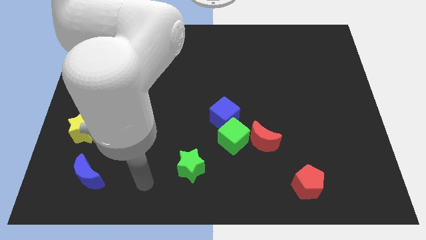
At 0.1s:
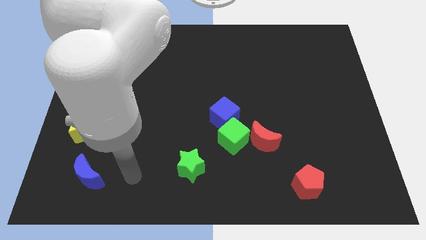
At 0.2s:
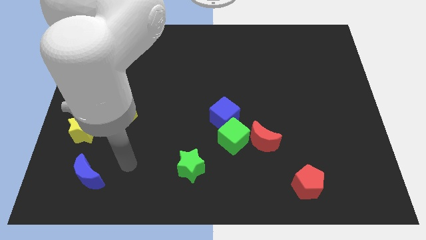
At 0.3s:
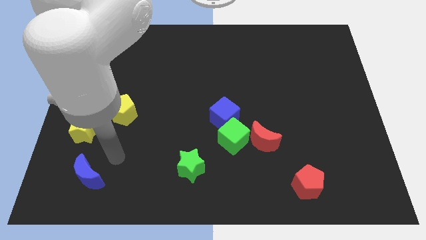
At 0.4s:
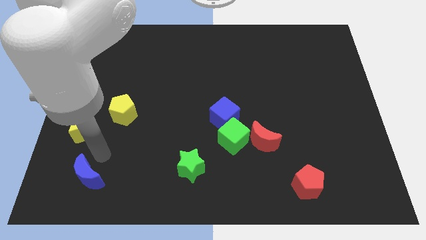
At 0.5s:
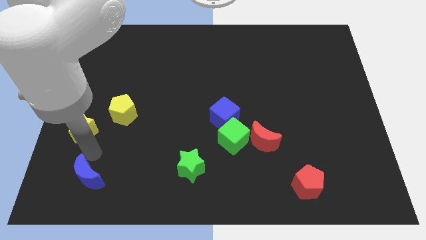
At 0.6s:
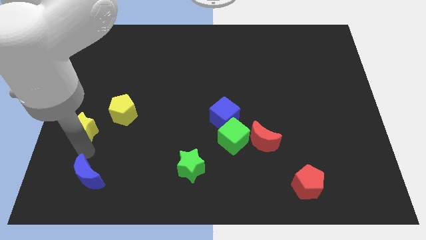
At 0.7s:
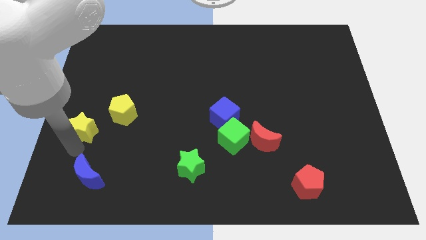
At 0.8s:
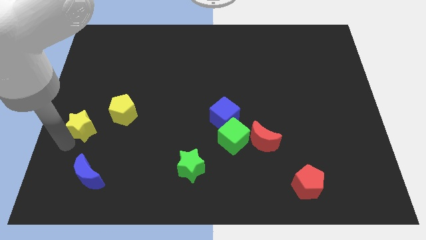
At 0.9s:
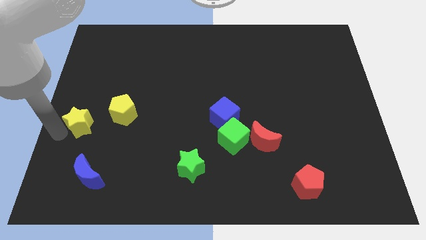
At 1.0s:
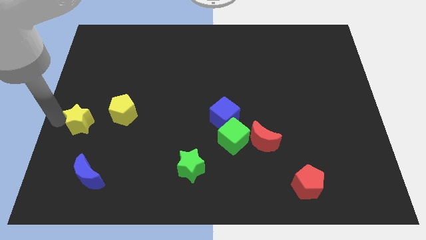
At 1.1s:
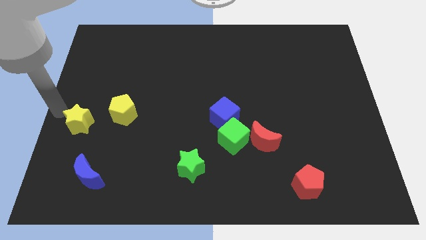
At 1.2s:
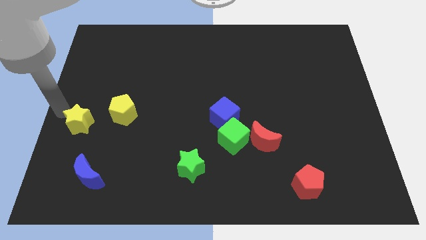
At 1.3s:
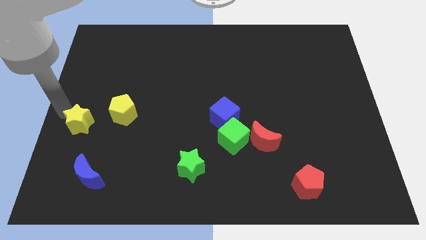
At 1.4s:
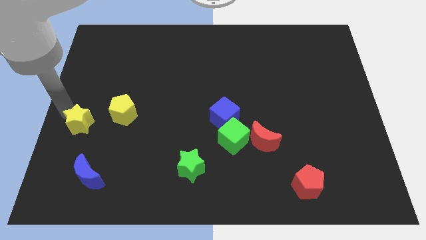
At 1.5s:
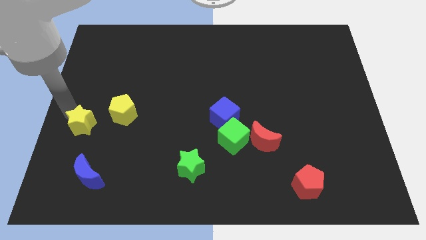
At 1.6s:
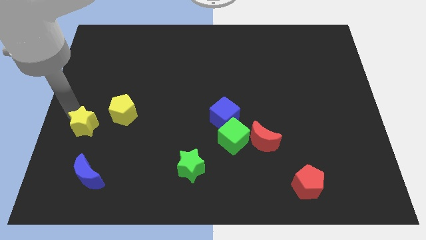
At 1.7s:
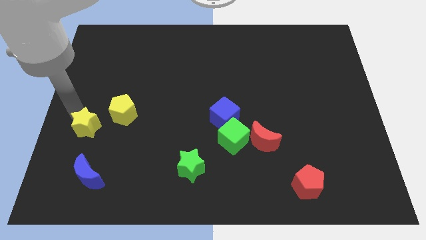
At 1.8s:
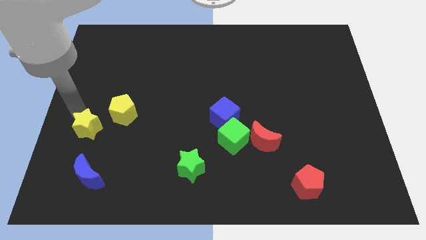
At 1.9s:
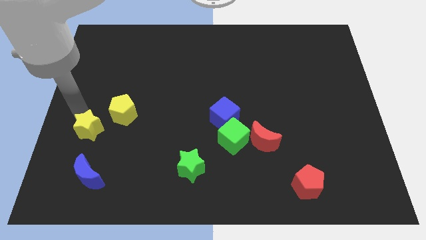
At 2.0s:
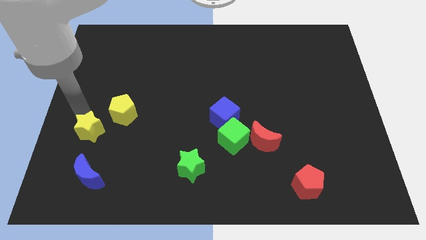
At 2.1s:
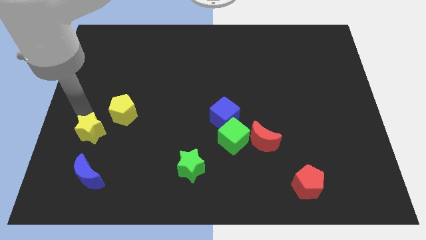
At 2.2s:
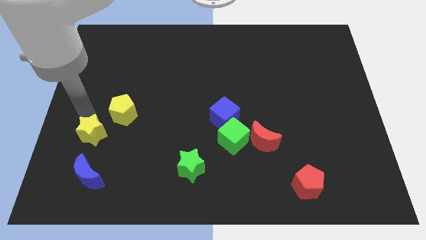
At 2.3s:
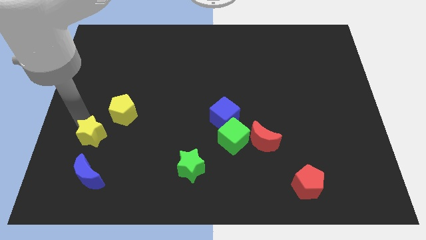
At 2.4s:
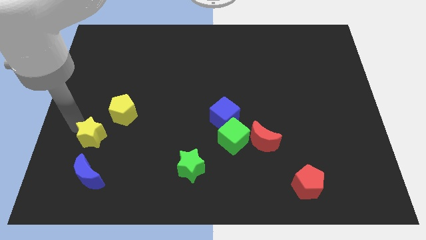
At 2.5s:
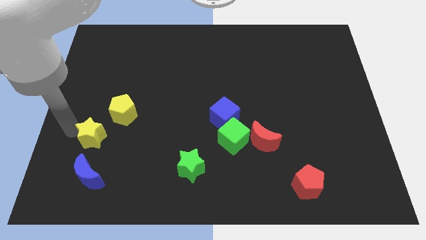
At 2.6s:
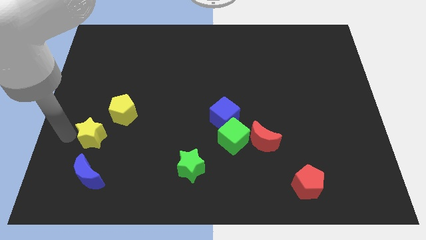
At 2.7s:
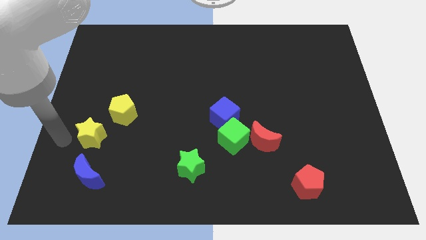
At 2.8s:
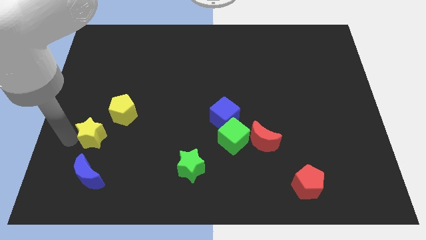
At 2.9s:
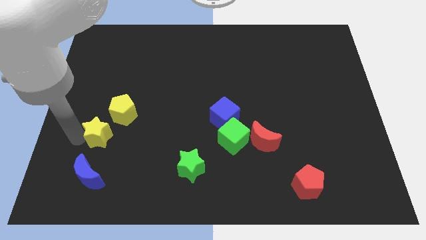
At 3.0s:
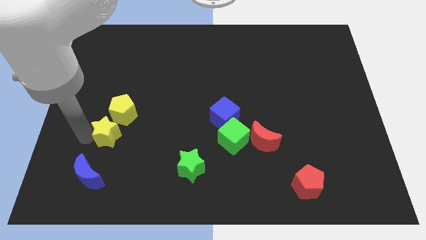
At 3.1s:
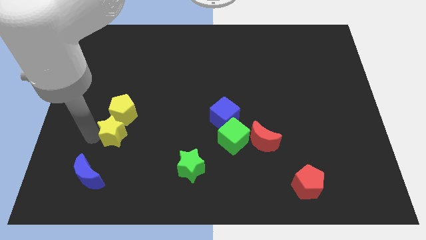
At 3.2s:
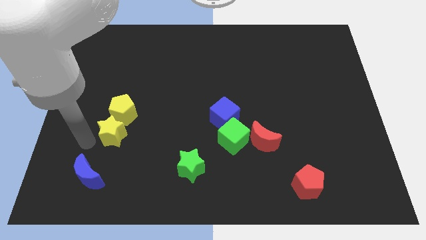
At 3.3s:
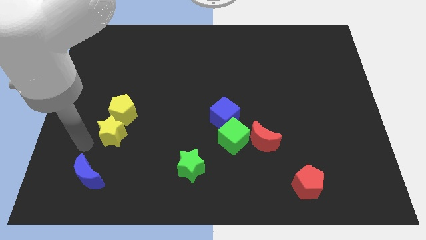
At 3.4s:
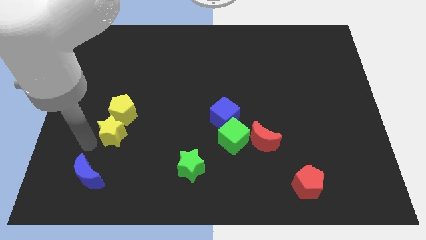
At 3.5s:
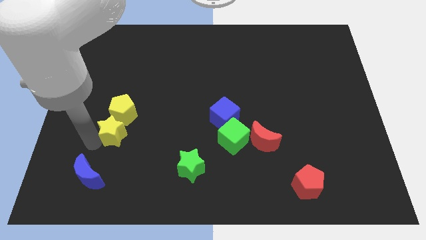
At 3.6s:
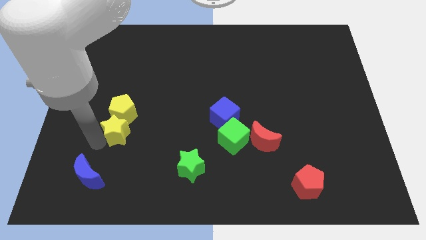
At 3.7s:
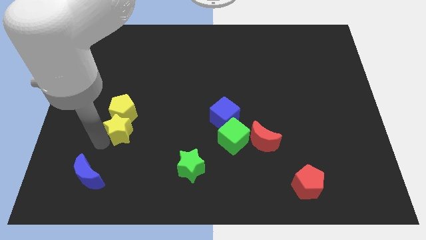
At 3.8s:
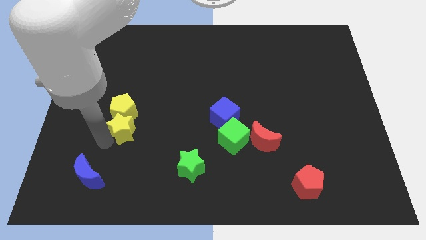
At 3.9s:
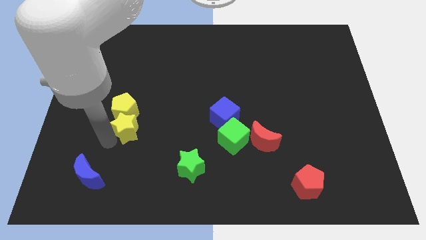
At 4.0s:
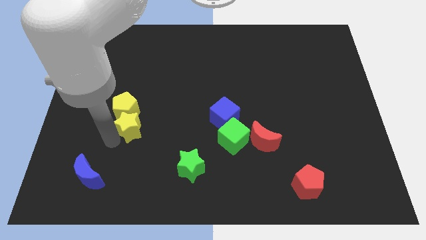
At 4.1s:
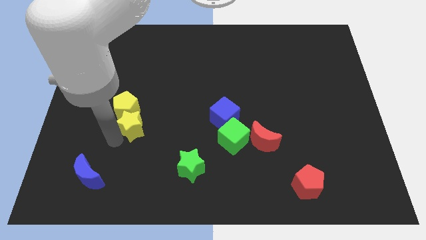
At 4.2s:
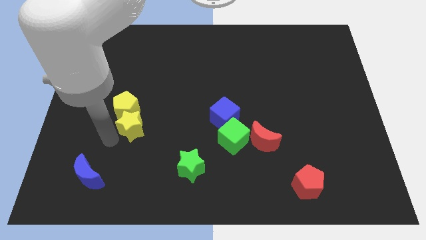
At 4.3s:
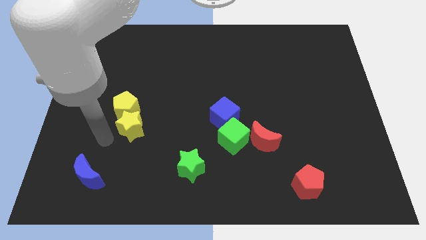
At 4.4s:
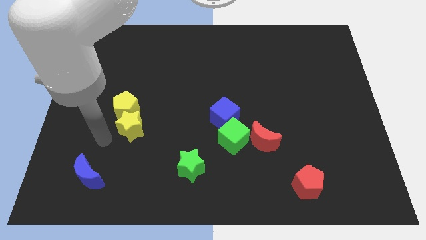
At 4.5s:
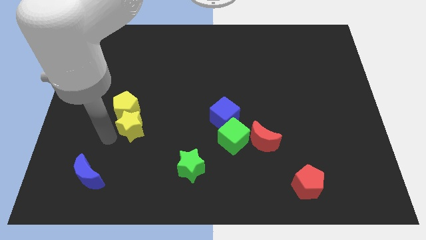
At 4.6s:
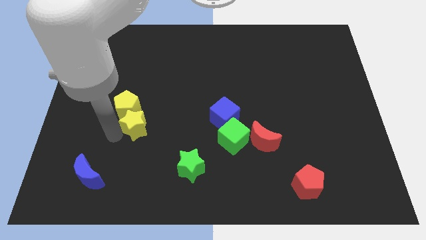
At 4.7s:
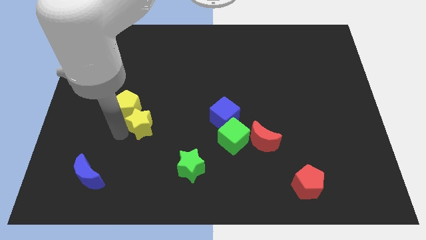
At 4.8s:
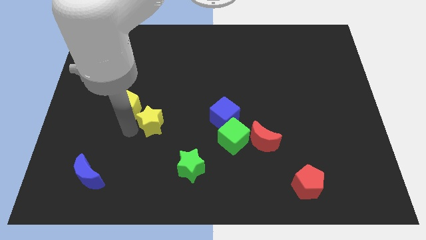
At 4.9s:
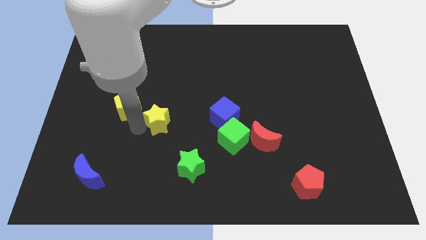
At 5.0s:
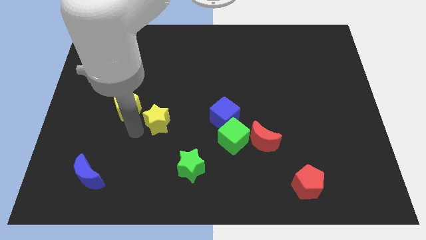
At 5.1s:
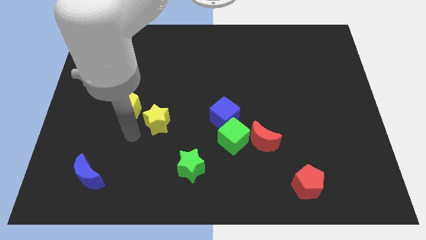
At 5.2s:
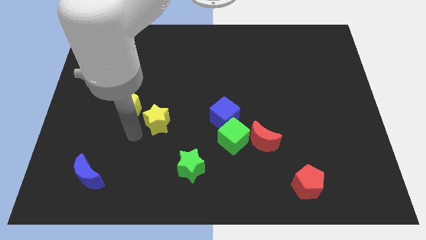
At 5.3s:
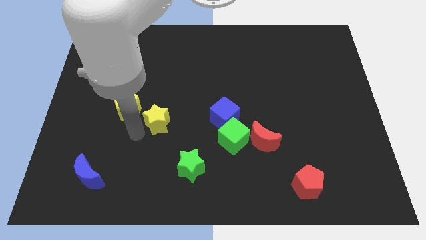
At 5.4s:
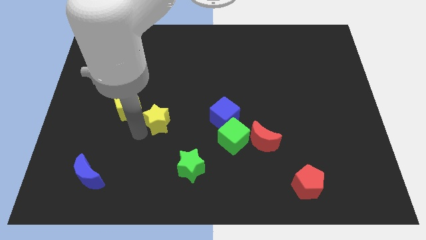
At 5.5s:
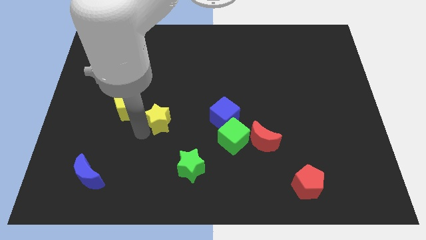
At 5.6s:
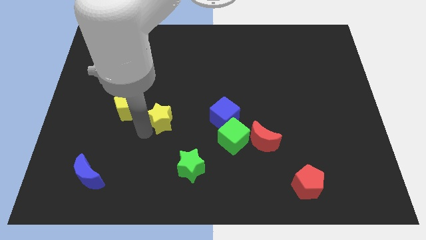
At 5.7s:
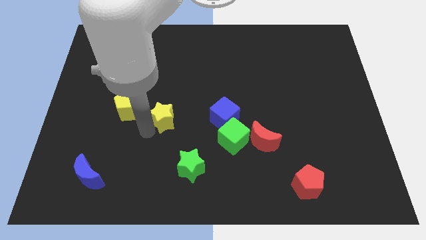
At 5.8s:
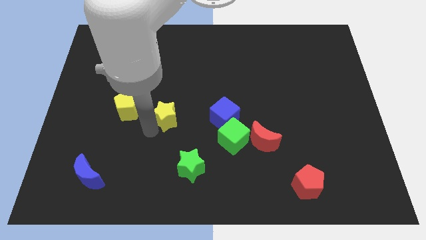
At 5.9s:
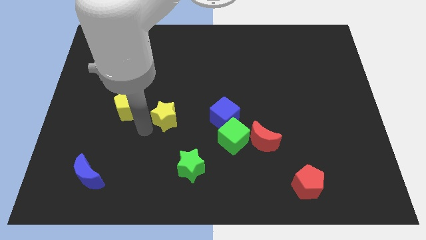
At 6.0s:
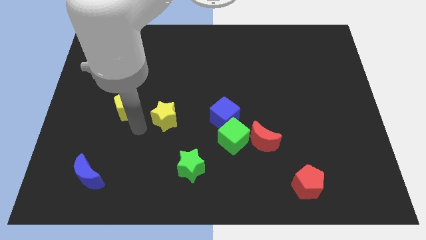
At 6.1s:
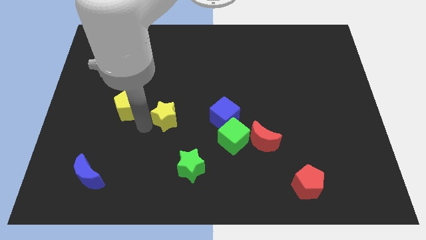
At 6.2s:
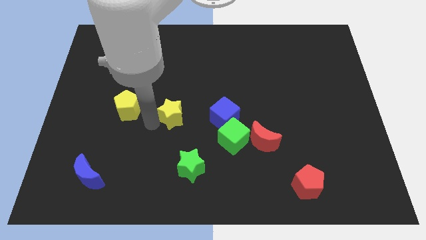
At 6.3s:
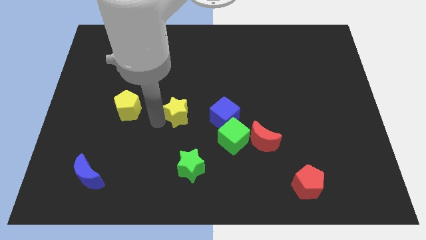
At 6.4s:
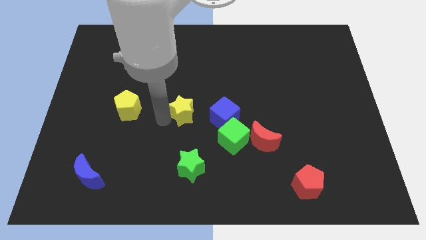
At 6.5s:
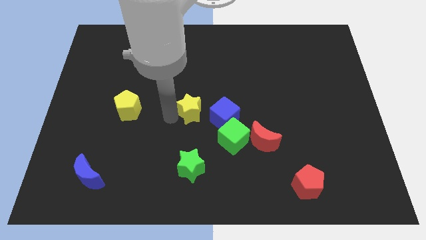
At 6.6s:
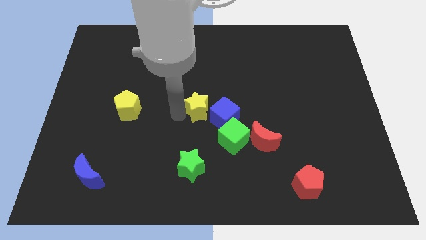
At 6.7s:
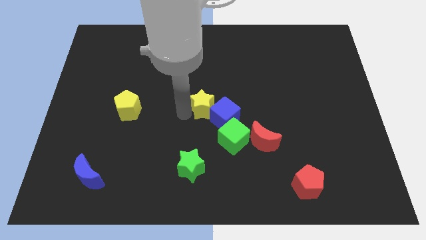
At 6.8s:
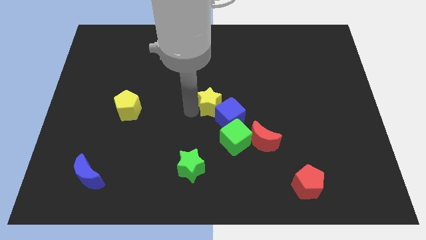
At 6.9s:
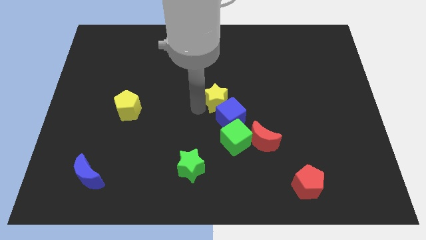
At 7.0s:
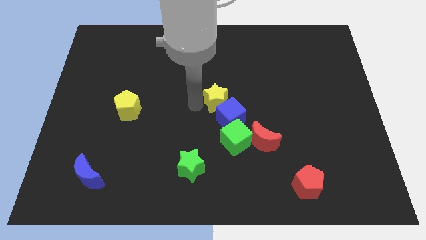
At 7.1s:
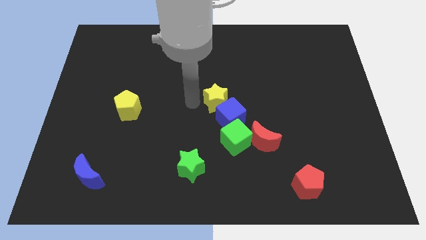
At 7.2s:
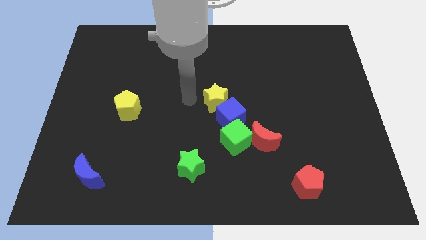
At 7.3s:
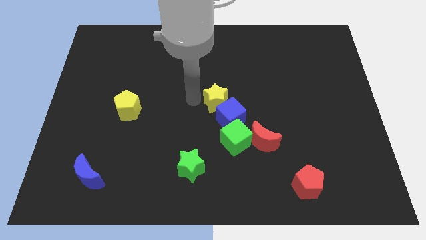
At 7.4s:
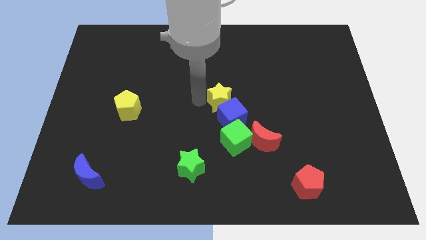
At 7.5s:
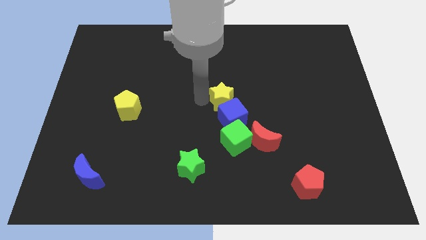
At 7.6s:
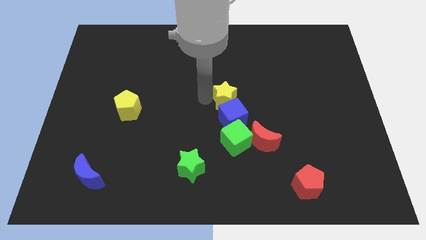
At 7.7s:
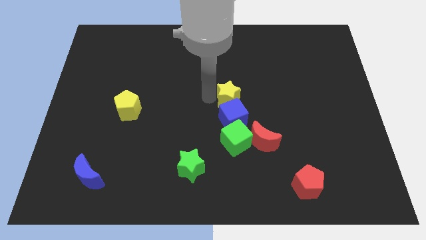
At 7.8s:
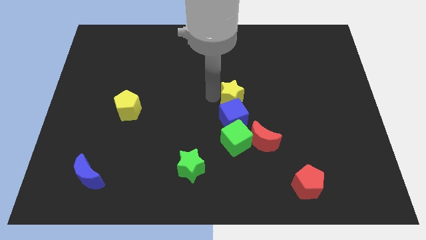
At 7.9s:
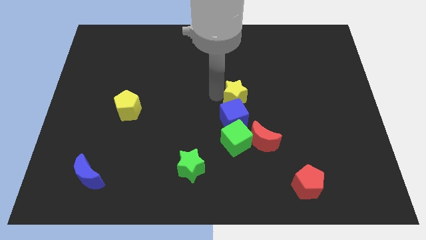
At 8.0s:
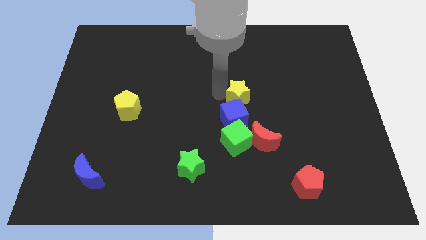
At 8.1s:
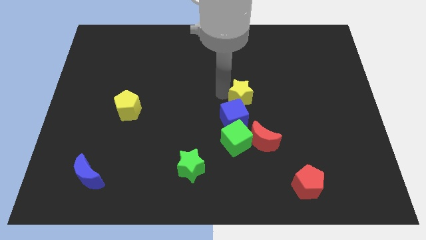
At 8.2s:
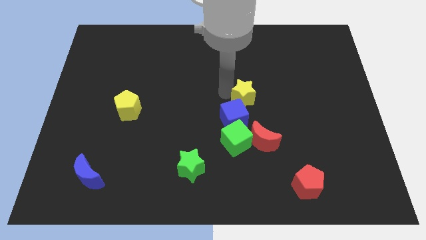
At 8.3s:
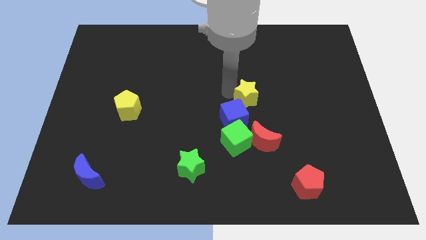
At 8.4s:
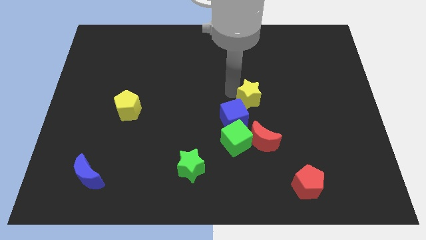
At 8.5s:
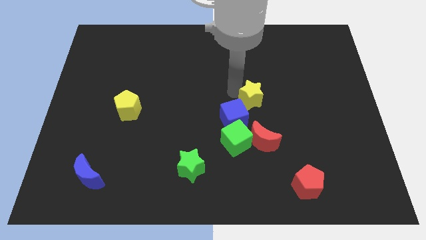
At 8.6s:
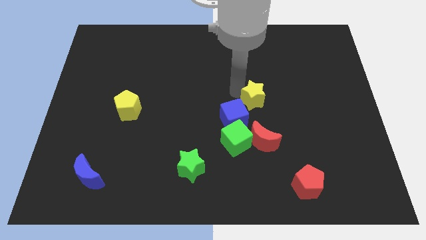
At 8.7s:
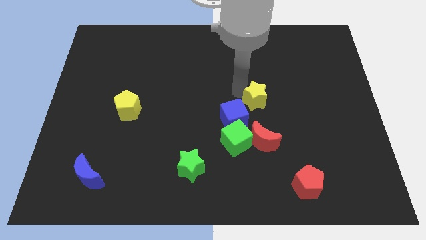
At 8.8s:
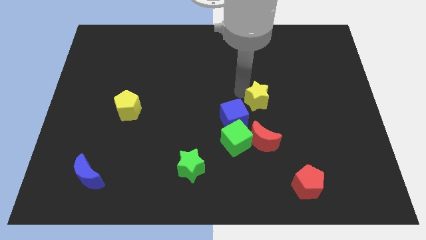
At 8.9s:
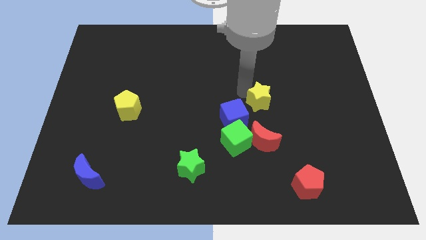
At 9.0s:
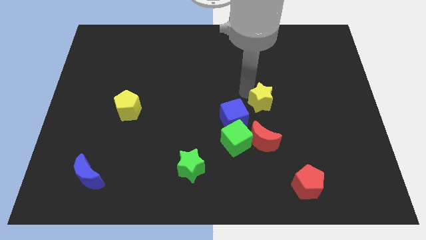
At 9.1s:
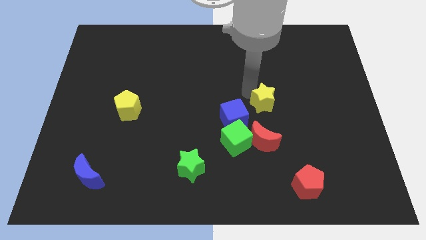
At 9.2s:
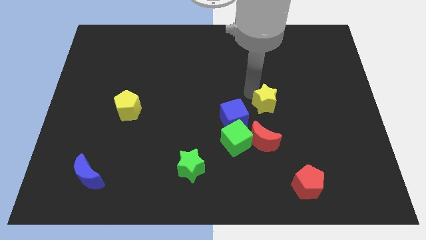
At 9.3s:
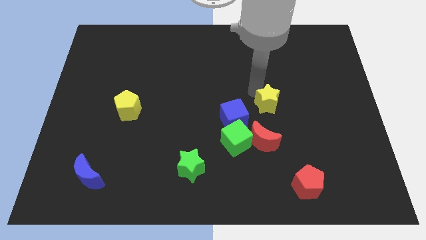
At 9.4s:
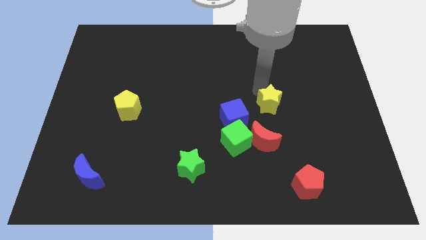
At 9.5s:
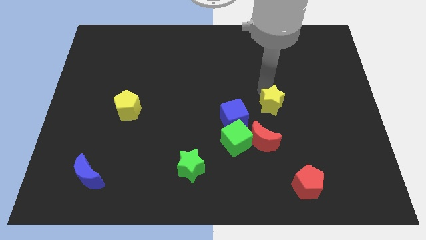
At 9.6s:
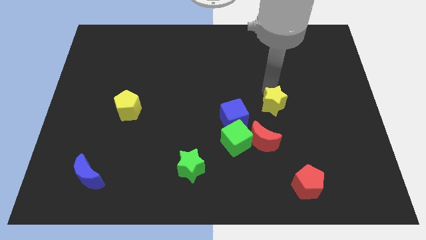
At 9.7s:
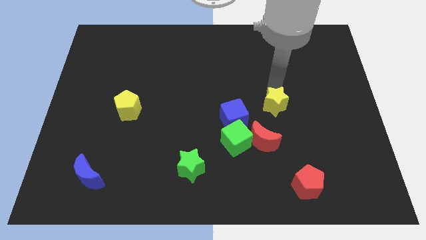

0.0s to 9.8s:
move the yellow star to the top right side of the red moon
